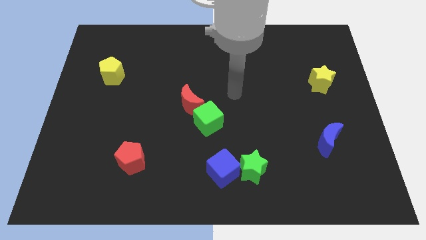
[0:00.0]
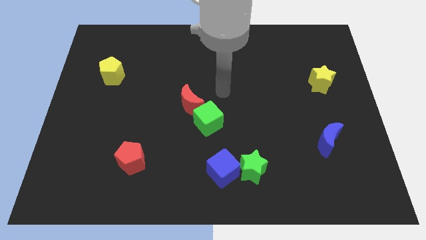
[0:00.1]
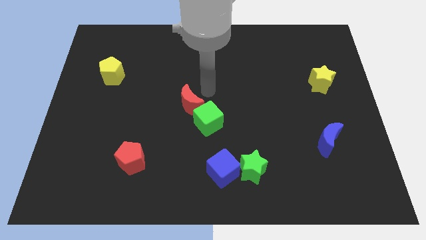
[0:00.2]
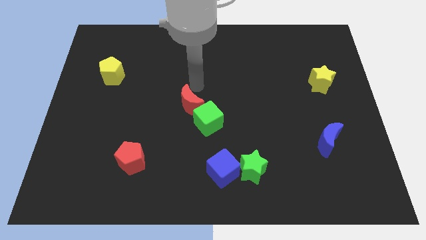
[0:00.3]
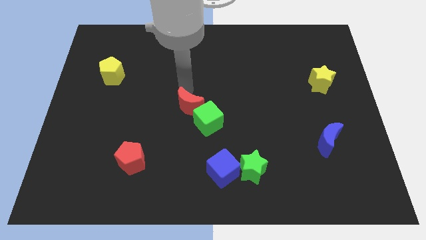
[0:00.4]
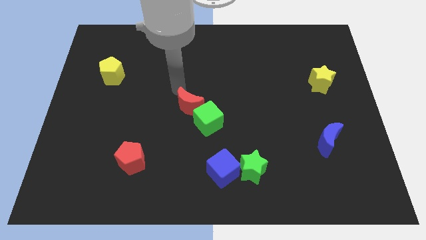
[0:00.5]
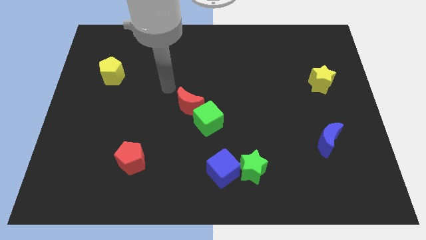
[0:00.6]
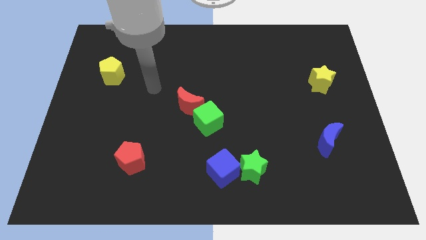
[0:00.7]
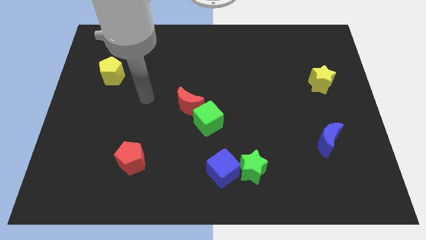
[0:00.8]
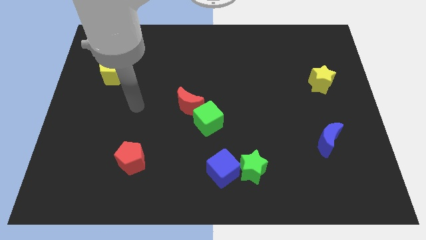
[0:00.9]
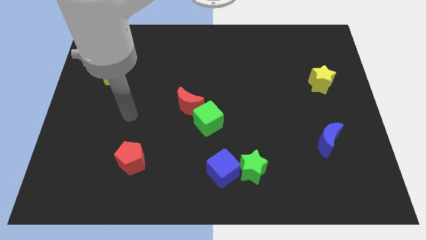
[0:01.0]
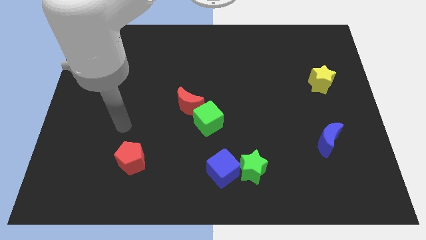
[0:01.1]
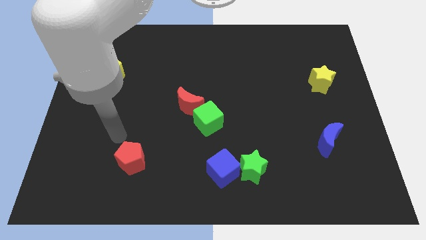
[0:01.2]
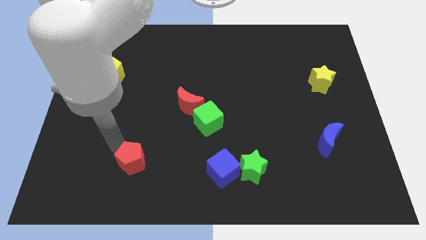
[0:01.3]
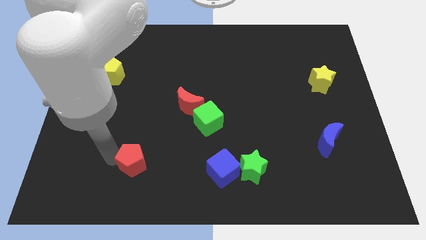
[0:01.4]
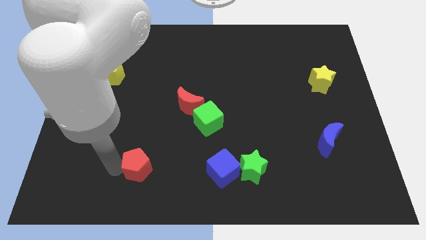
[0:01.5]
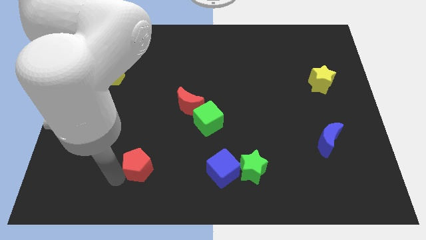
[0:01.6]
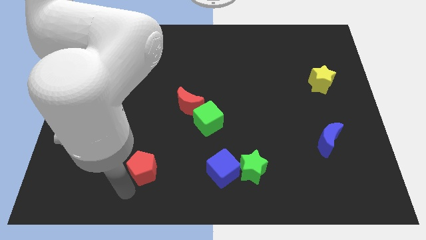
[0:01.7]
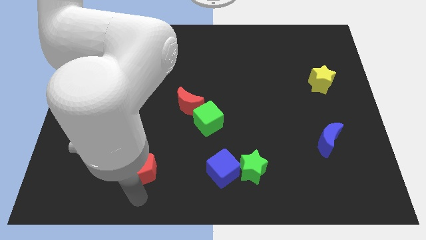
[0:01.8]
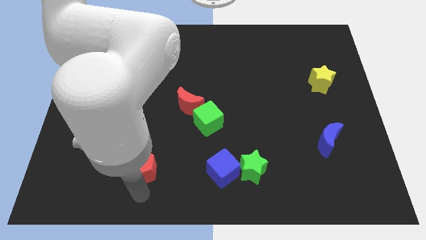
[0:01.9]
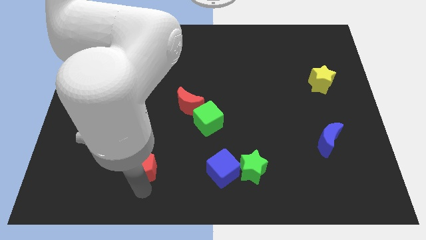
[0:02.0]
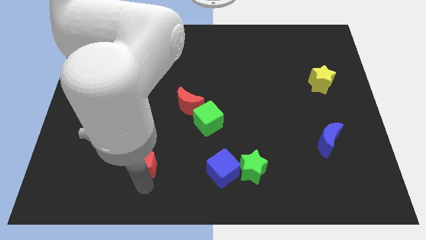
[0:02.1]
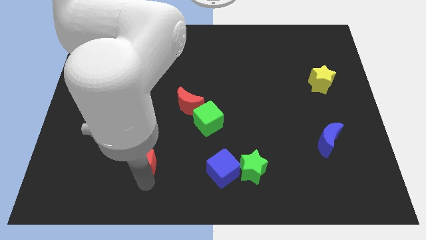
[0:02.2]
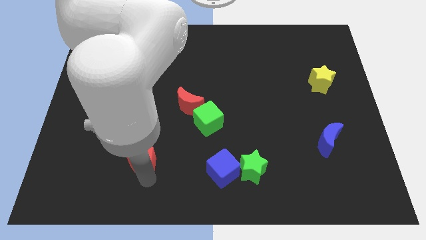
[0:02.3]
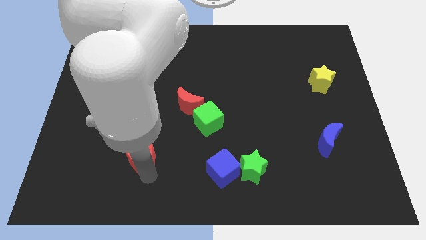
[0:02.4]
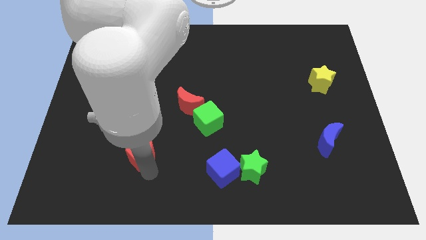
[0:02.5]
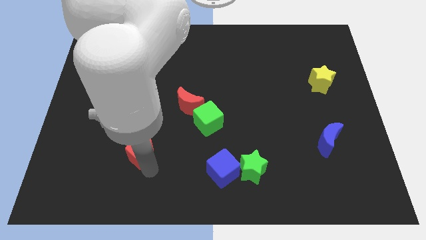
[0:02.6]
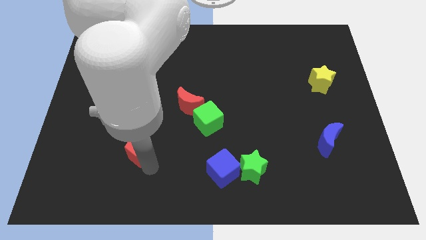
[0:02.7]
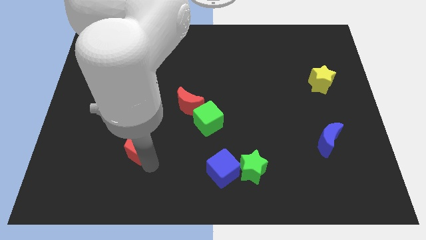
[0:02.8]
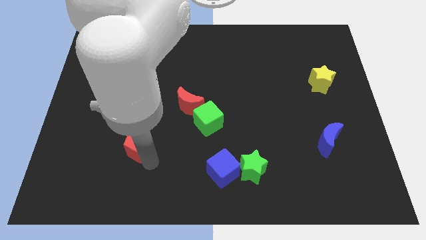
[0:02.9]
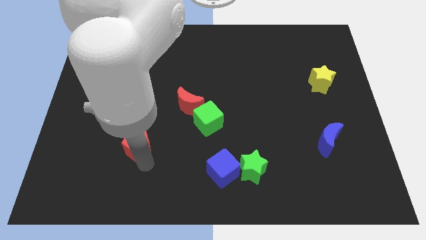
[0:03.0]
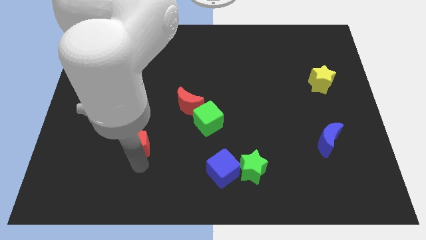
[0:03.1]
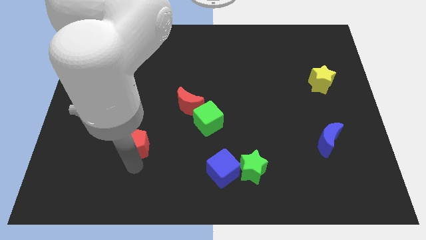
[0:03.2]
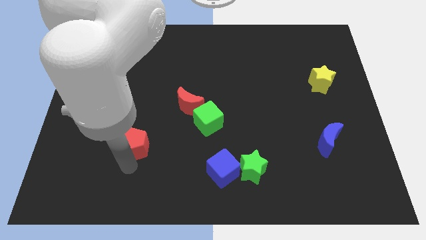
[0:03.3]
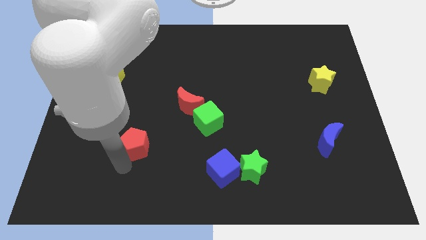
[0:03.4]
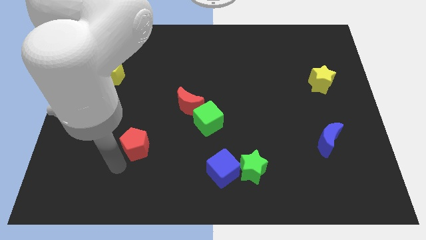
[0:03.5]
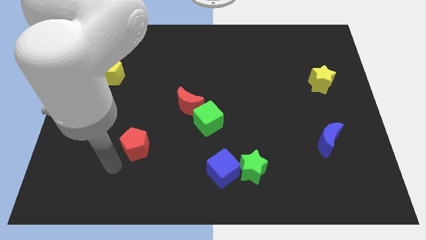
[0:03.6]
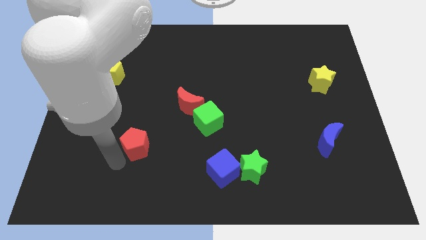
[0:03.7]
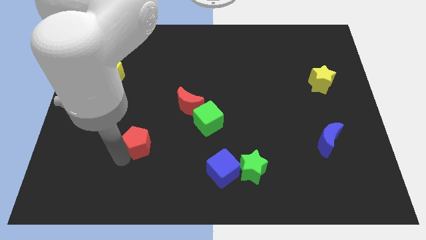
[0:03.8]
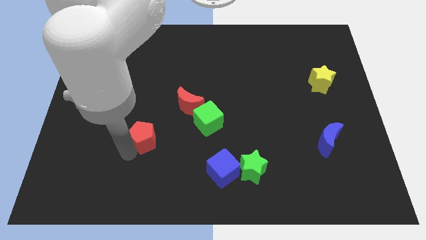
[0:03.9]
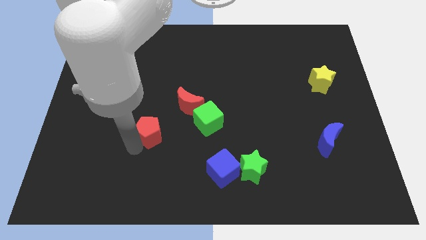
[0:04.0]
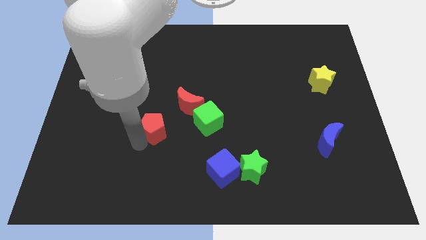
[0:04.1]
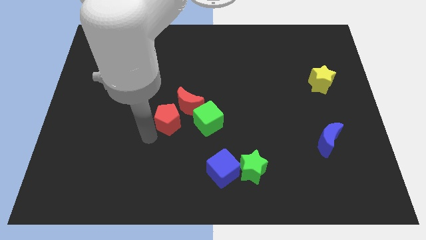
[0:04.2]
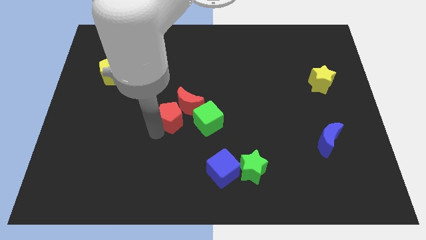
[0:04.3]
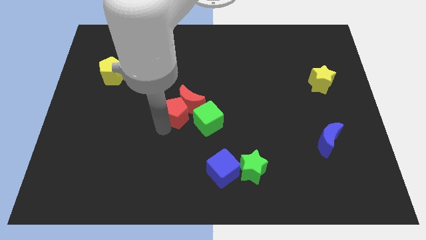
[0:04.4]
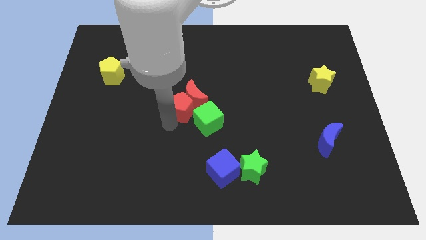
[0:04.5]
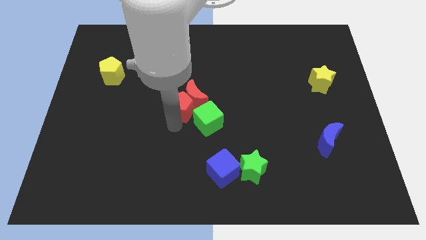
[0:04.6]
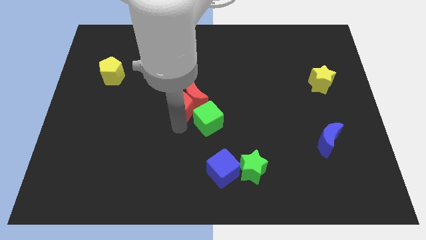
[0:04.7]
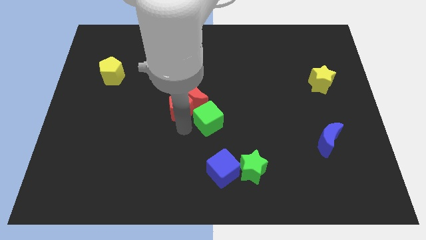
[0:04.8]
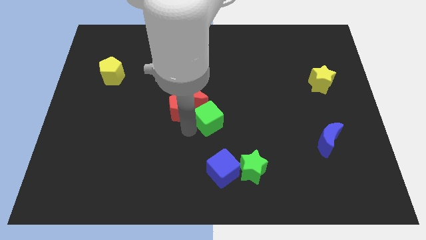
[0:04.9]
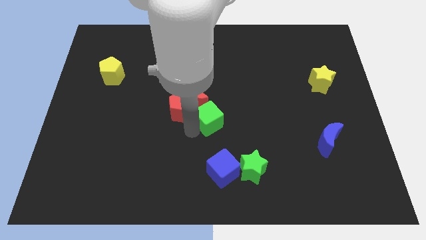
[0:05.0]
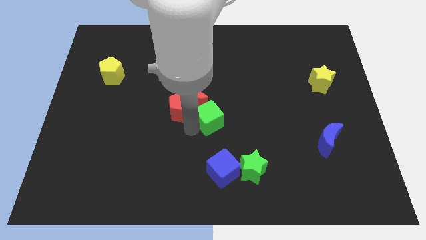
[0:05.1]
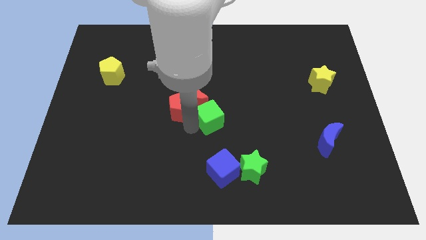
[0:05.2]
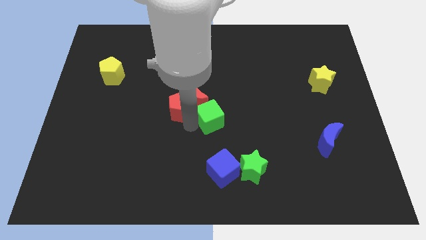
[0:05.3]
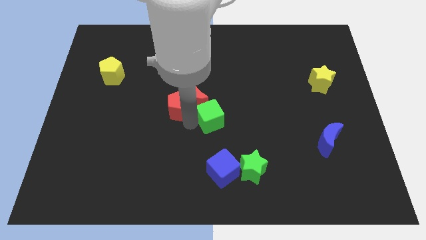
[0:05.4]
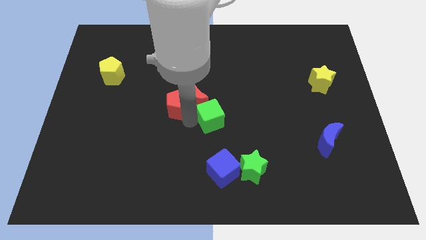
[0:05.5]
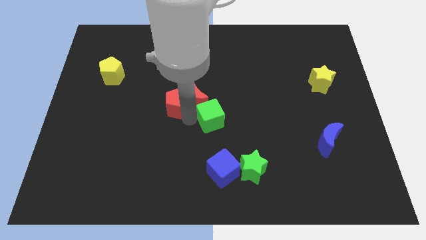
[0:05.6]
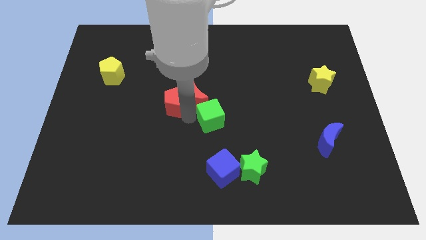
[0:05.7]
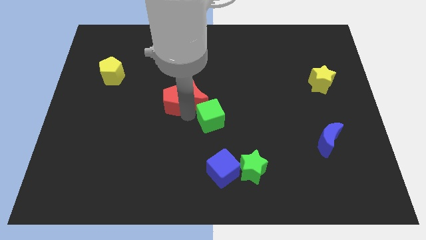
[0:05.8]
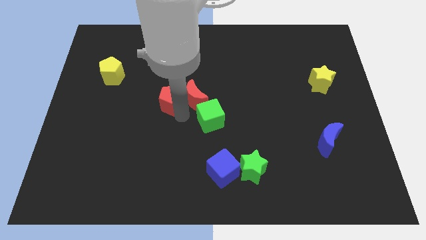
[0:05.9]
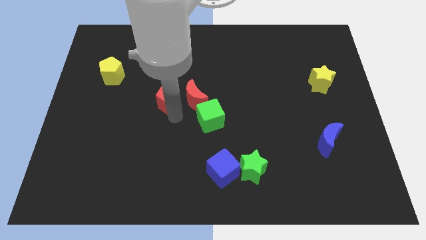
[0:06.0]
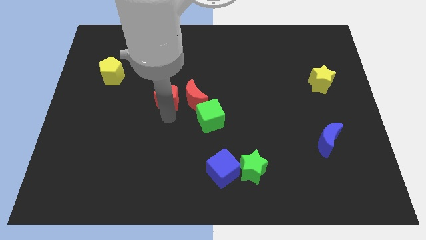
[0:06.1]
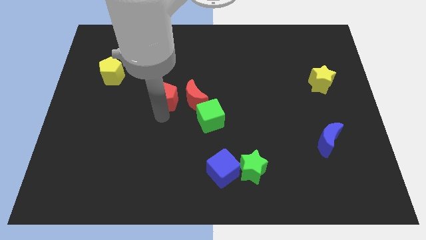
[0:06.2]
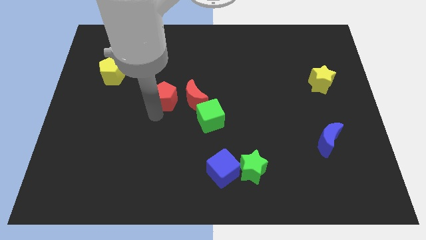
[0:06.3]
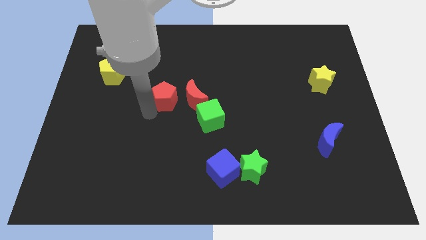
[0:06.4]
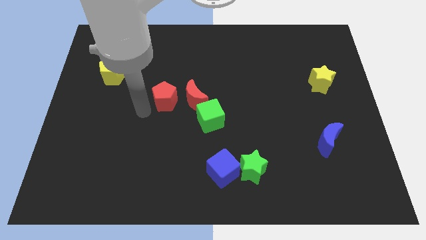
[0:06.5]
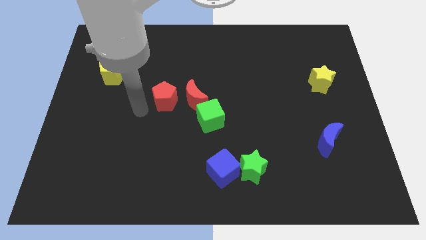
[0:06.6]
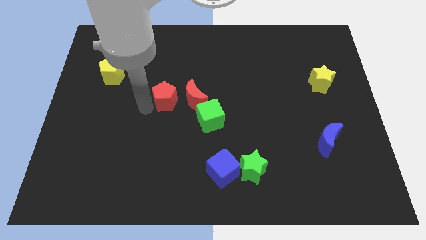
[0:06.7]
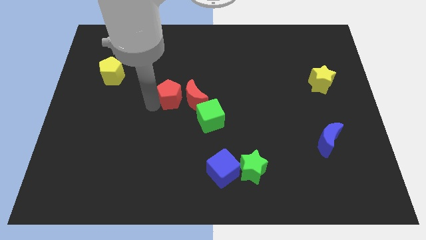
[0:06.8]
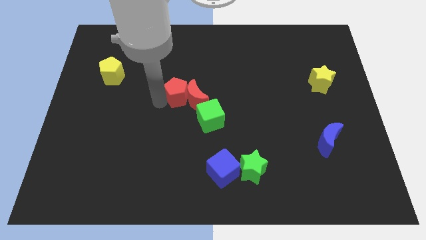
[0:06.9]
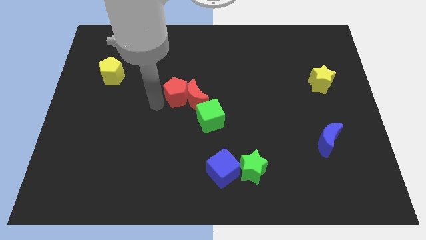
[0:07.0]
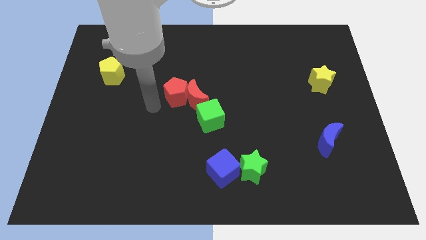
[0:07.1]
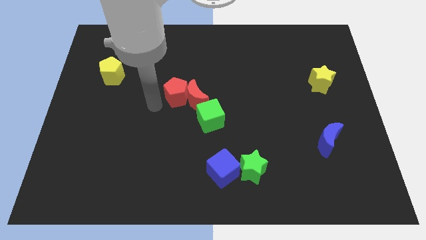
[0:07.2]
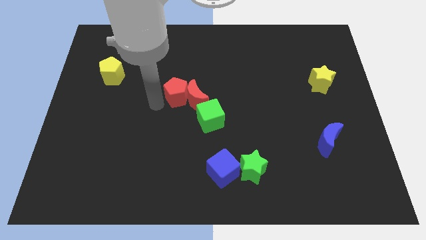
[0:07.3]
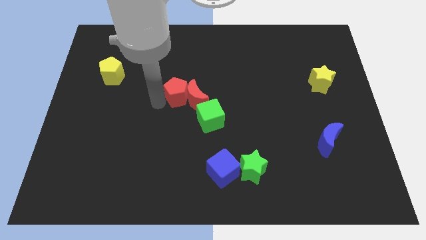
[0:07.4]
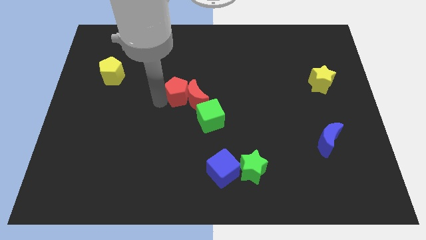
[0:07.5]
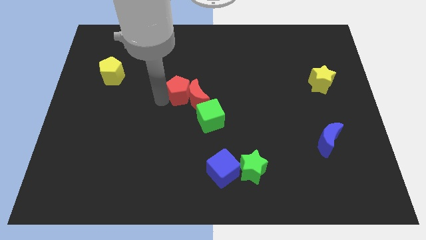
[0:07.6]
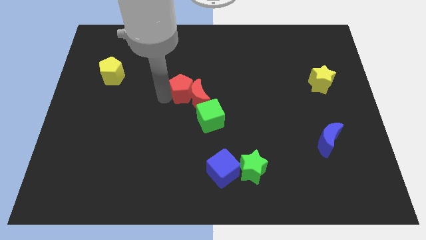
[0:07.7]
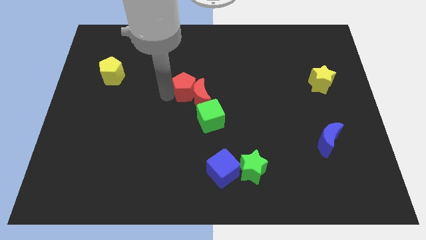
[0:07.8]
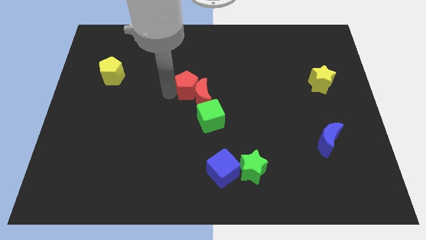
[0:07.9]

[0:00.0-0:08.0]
push the red pentagon up and then to the right

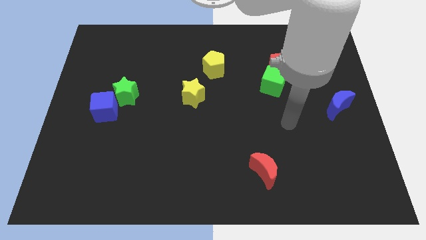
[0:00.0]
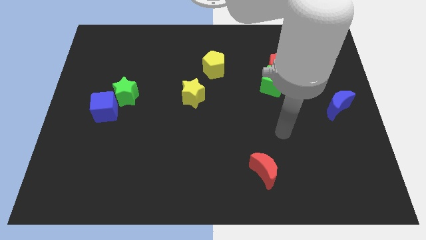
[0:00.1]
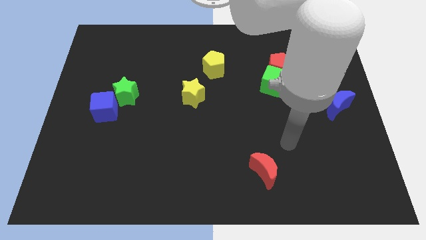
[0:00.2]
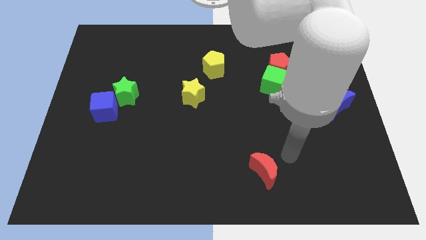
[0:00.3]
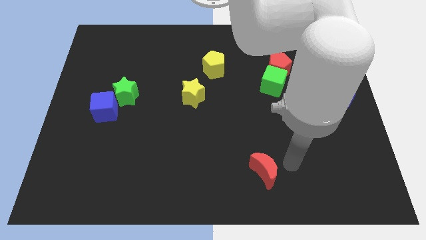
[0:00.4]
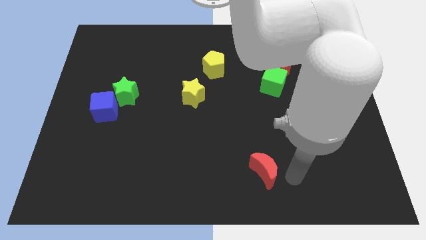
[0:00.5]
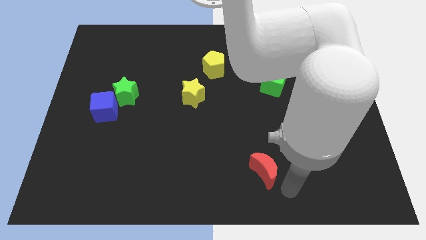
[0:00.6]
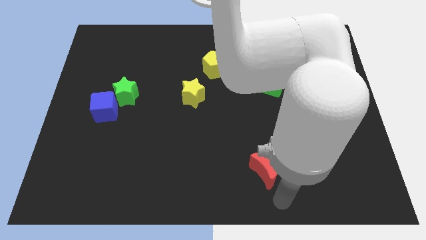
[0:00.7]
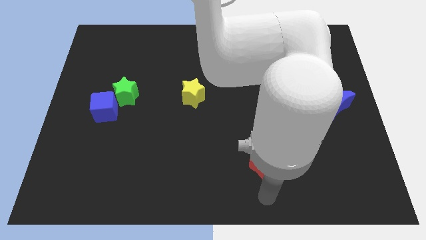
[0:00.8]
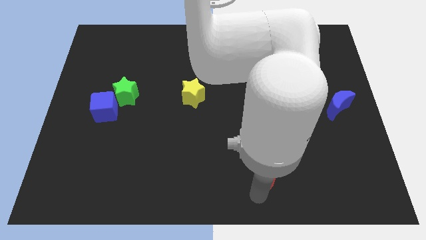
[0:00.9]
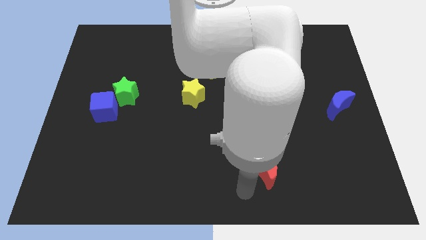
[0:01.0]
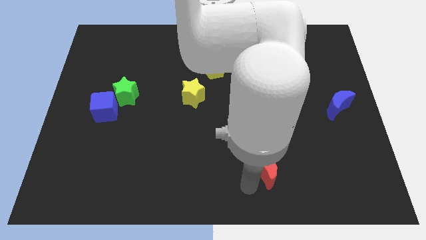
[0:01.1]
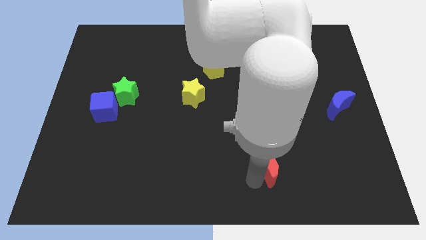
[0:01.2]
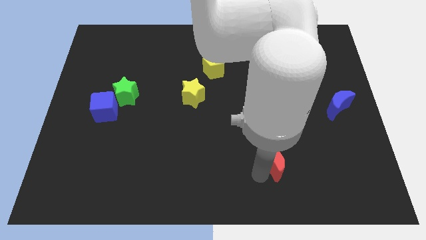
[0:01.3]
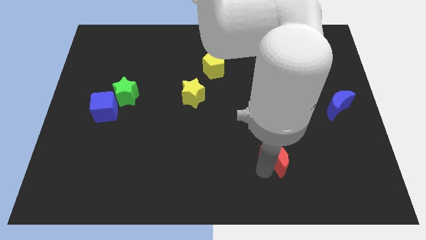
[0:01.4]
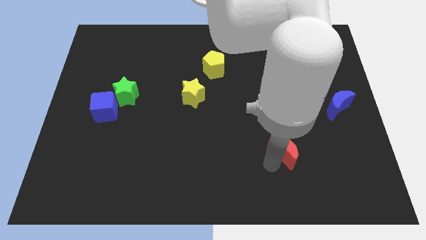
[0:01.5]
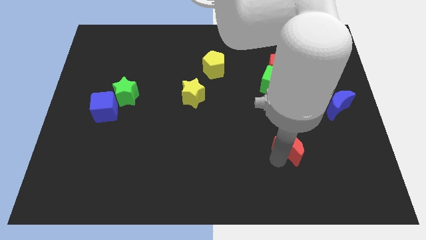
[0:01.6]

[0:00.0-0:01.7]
slightly slide the red moon diagonally up and to the right
